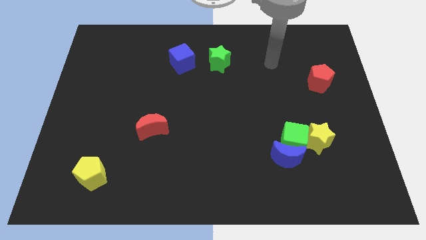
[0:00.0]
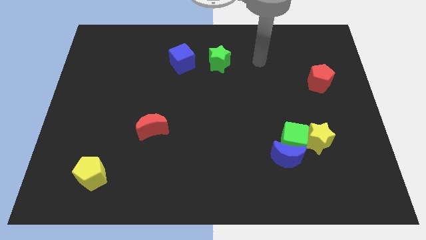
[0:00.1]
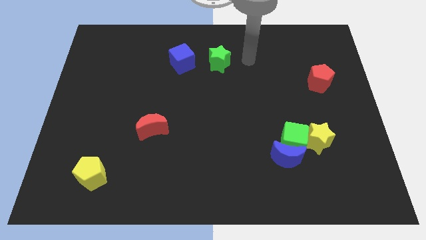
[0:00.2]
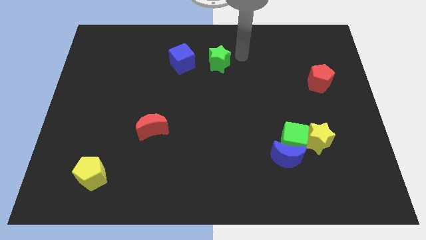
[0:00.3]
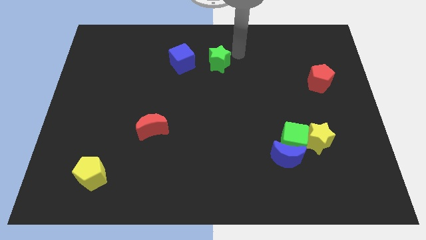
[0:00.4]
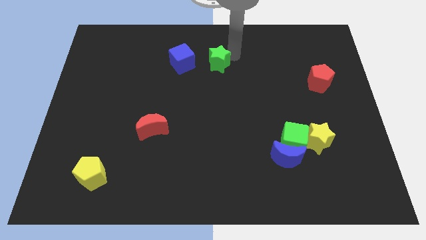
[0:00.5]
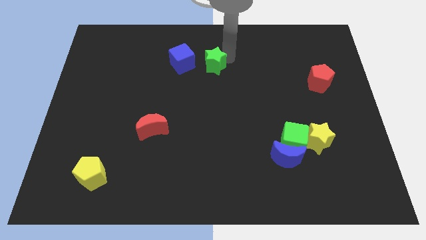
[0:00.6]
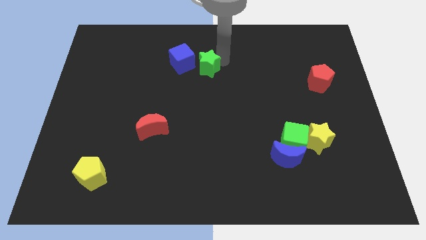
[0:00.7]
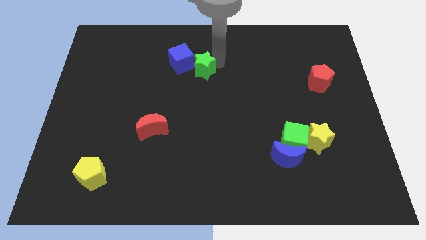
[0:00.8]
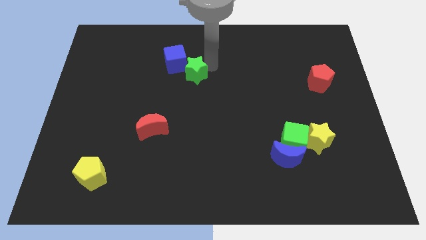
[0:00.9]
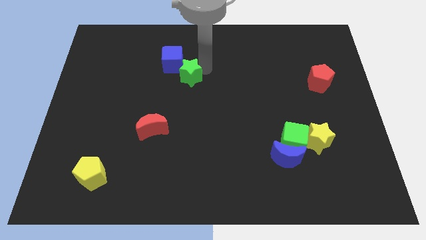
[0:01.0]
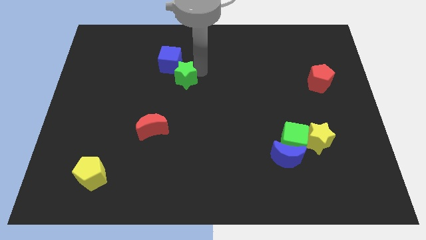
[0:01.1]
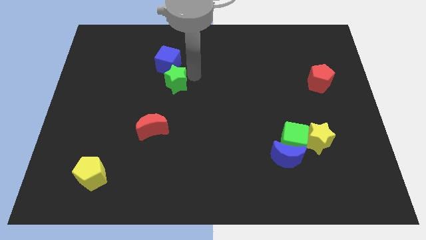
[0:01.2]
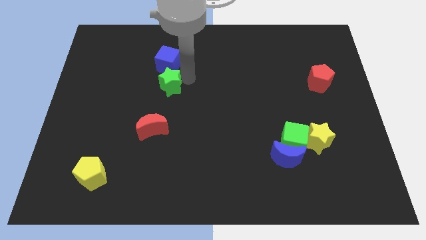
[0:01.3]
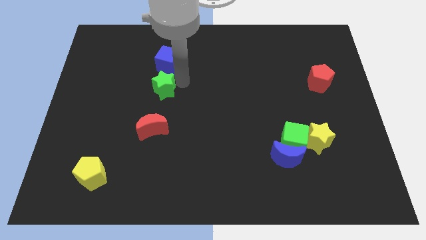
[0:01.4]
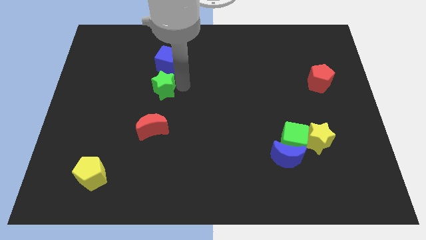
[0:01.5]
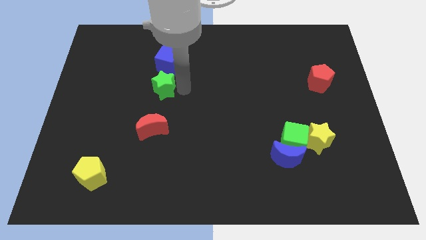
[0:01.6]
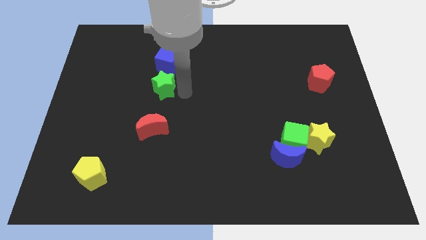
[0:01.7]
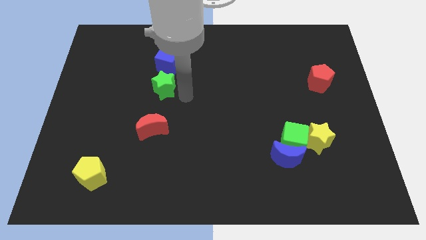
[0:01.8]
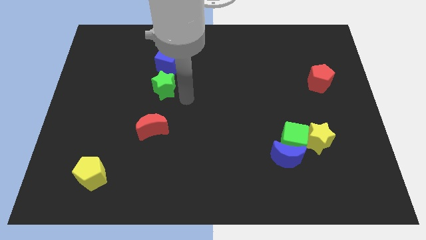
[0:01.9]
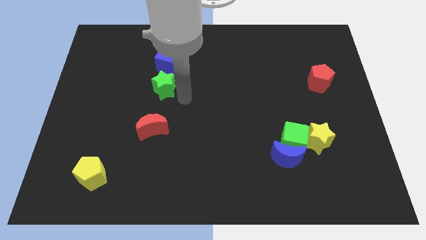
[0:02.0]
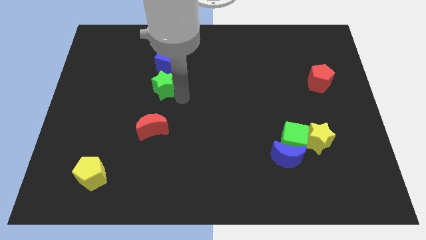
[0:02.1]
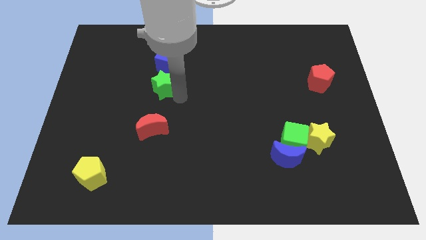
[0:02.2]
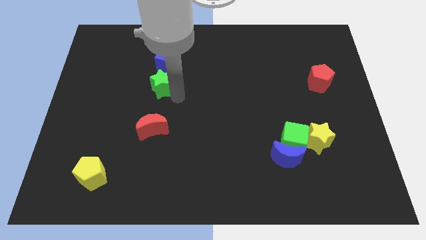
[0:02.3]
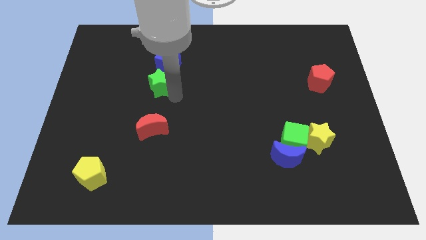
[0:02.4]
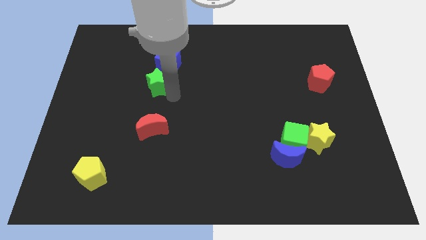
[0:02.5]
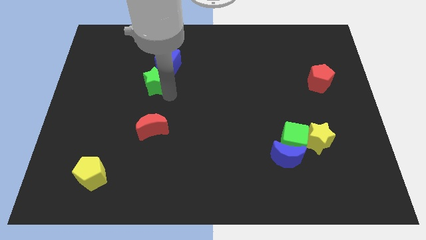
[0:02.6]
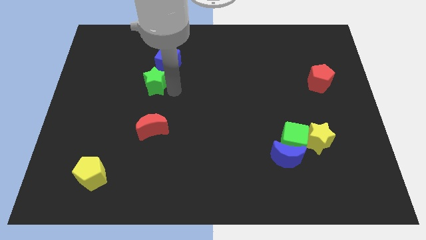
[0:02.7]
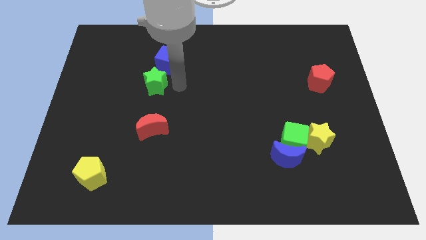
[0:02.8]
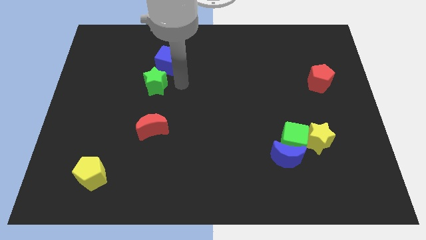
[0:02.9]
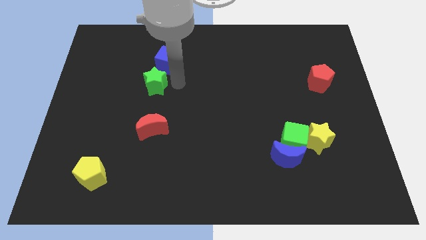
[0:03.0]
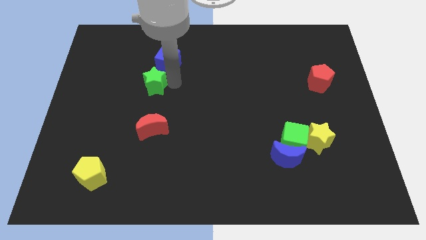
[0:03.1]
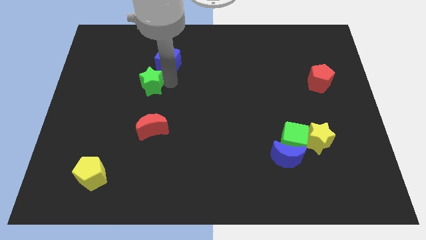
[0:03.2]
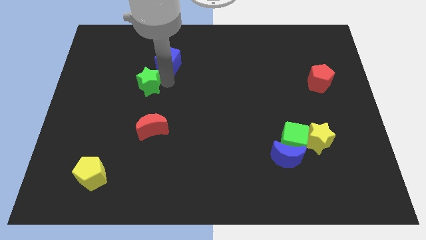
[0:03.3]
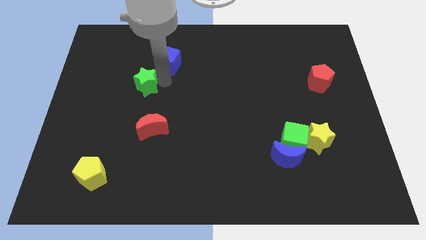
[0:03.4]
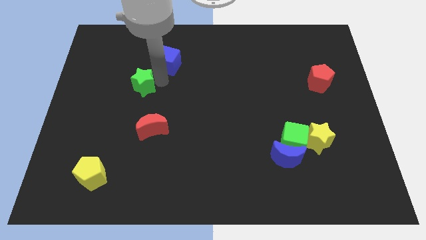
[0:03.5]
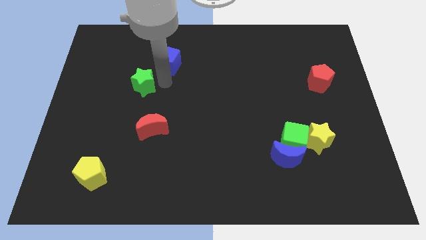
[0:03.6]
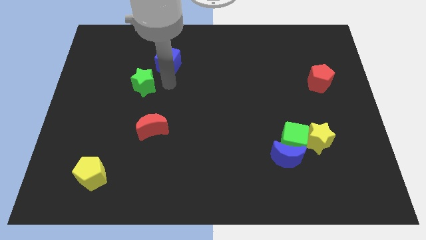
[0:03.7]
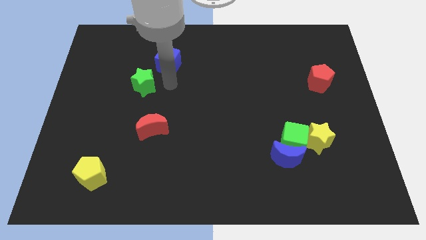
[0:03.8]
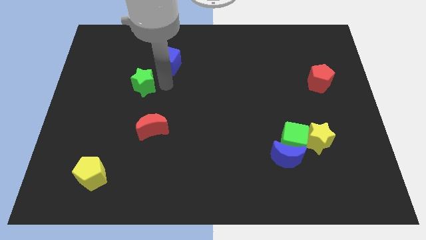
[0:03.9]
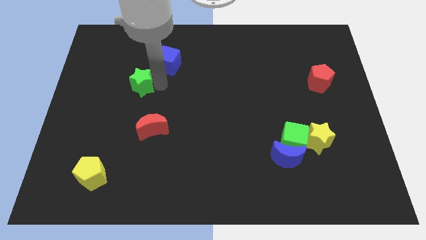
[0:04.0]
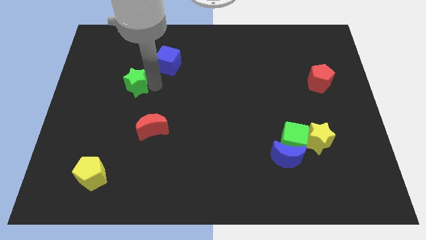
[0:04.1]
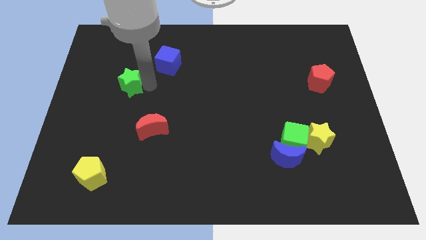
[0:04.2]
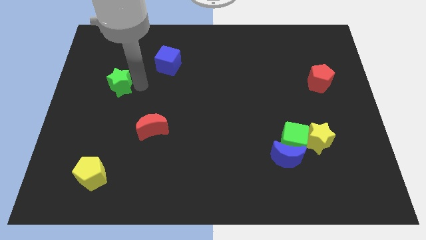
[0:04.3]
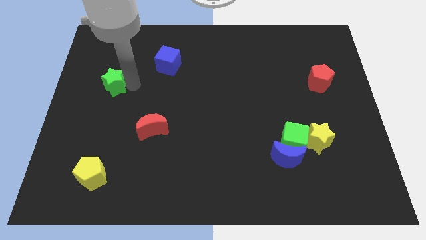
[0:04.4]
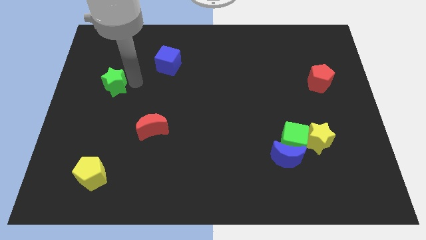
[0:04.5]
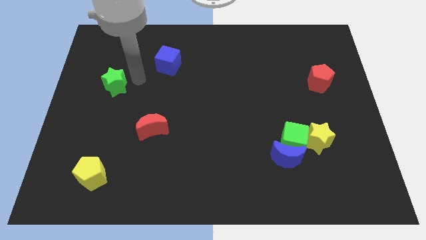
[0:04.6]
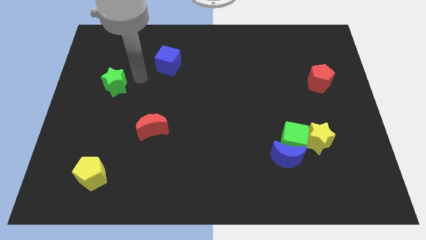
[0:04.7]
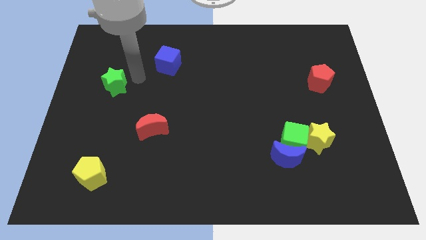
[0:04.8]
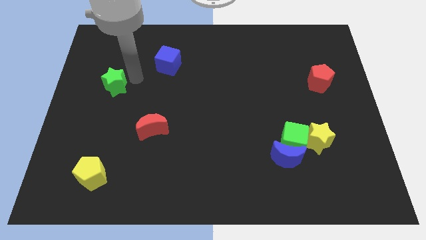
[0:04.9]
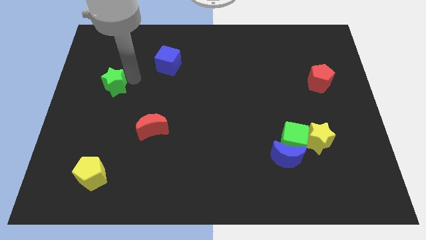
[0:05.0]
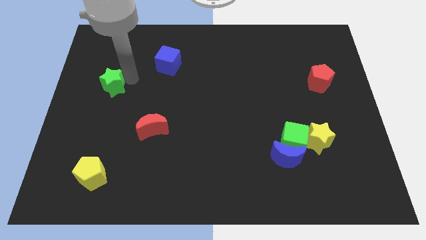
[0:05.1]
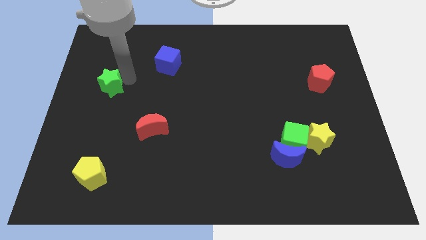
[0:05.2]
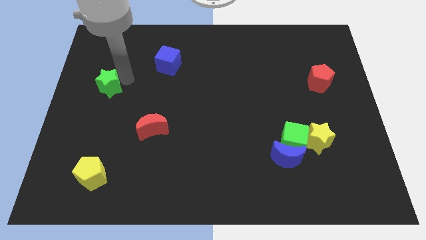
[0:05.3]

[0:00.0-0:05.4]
push the green star to the left side

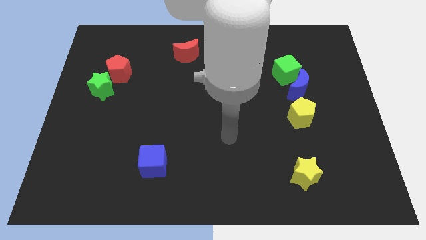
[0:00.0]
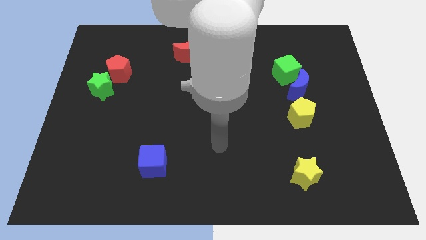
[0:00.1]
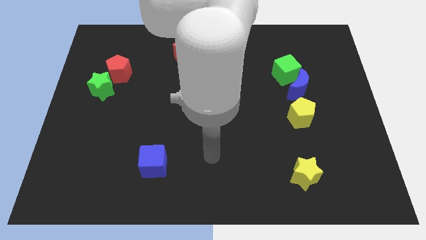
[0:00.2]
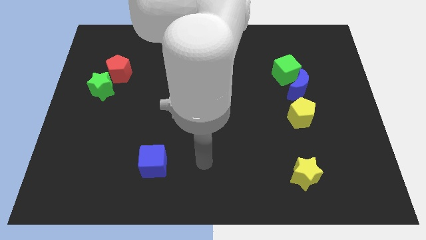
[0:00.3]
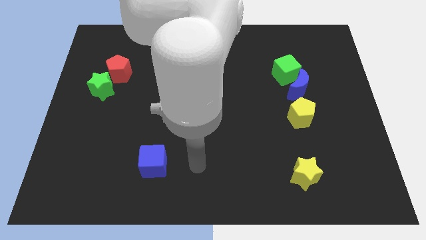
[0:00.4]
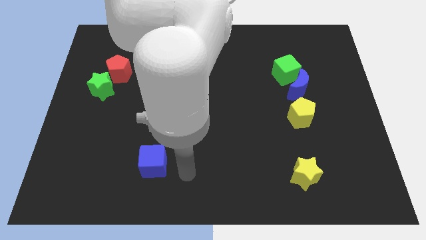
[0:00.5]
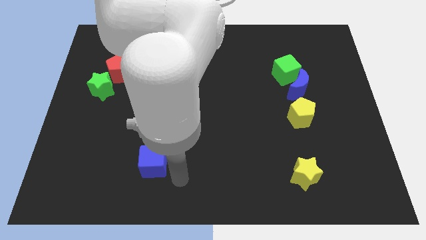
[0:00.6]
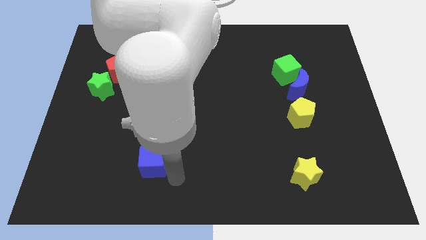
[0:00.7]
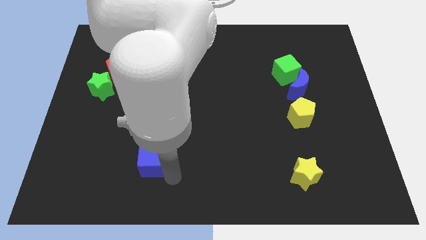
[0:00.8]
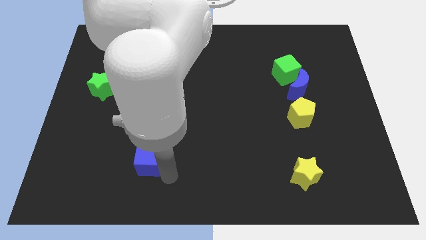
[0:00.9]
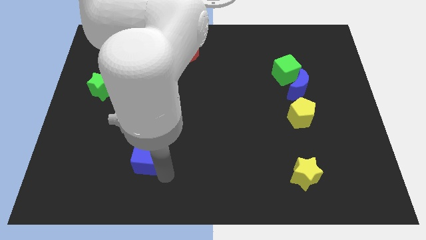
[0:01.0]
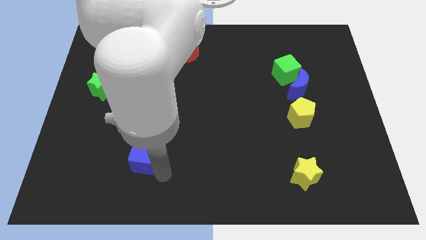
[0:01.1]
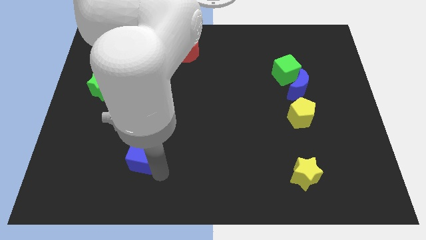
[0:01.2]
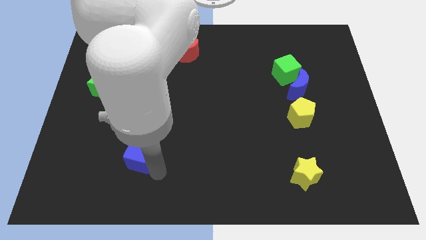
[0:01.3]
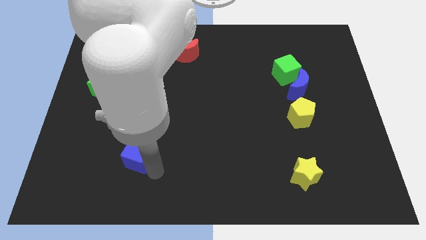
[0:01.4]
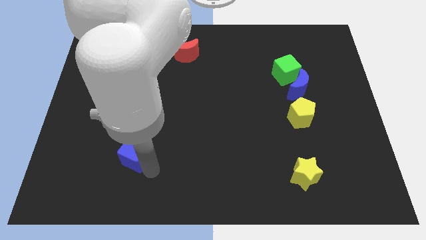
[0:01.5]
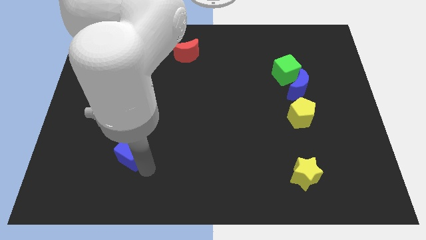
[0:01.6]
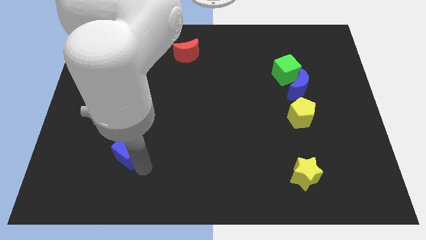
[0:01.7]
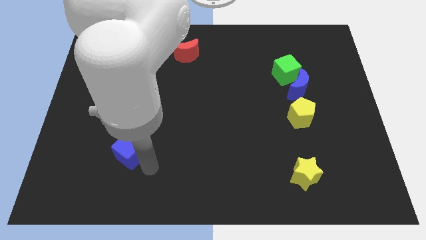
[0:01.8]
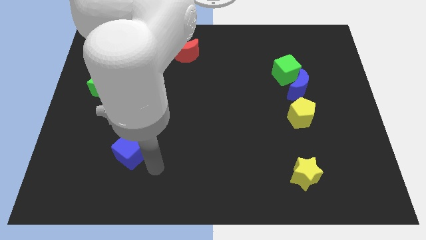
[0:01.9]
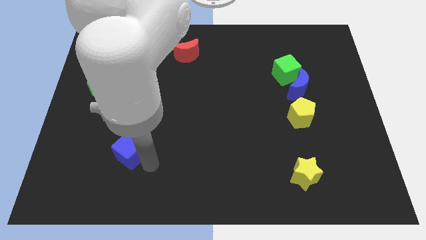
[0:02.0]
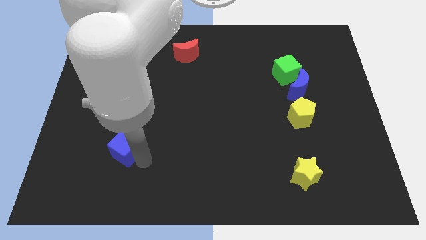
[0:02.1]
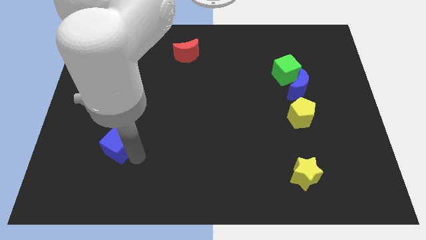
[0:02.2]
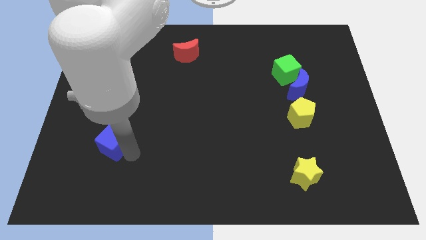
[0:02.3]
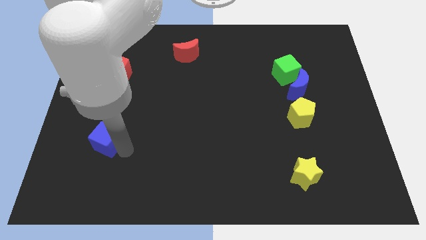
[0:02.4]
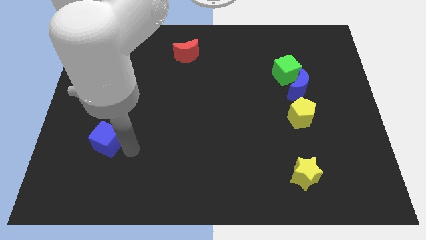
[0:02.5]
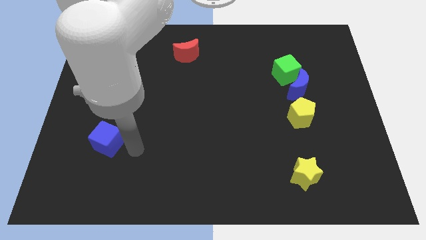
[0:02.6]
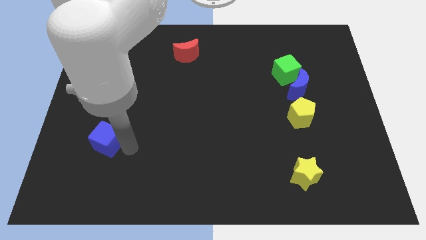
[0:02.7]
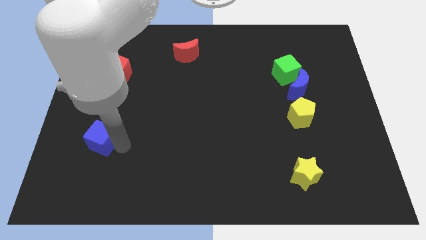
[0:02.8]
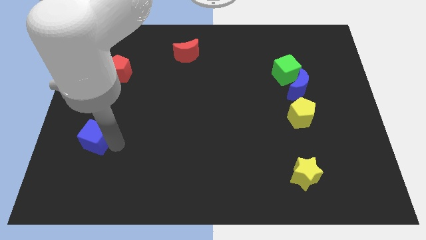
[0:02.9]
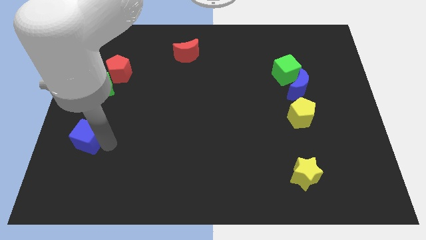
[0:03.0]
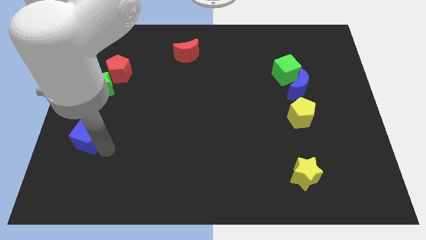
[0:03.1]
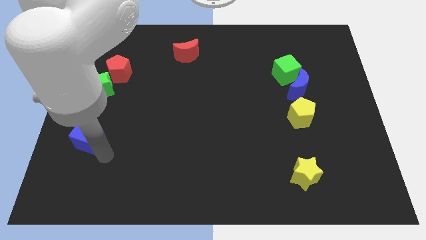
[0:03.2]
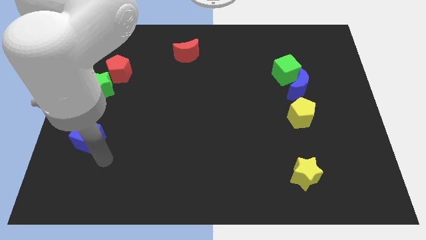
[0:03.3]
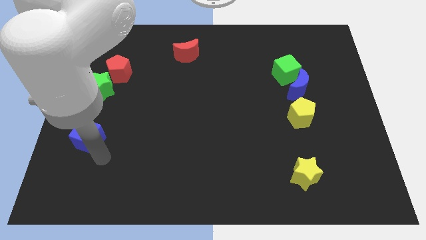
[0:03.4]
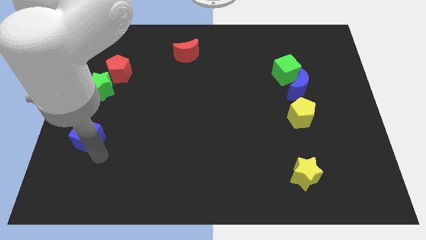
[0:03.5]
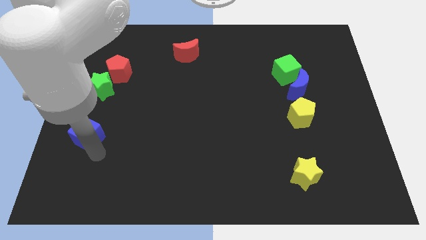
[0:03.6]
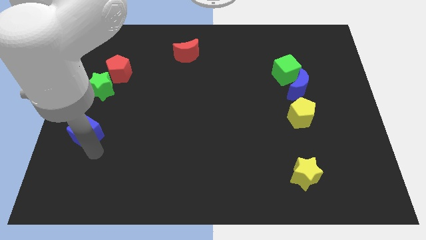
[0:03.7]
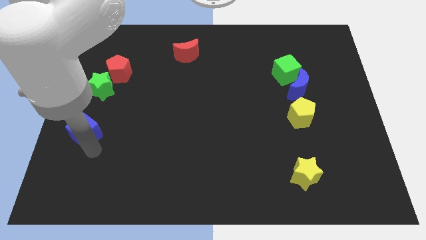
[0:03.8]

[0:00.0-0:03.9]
put the blue cube to the left side of the board
